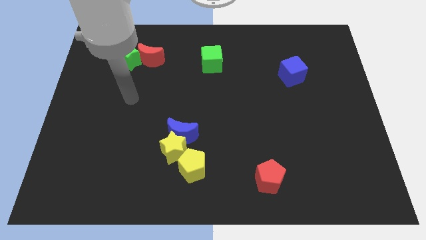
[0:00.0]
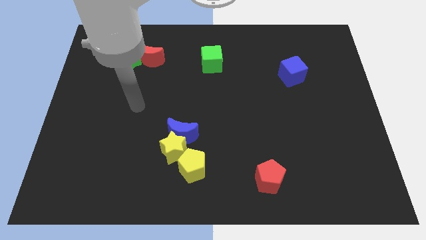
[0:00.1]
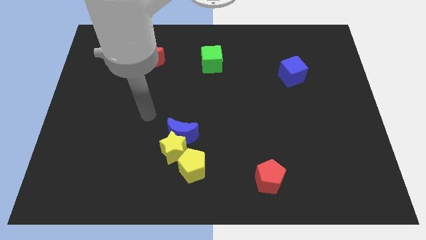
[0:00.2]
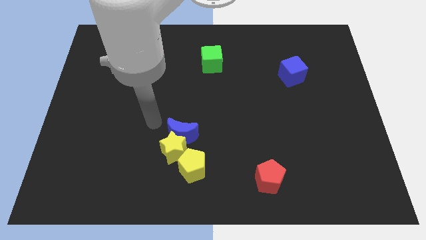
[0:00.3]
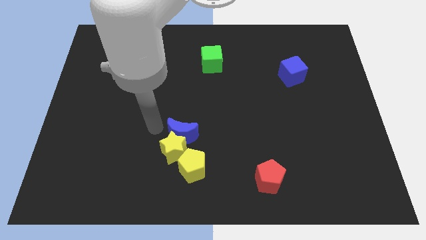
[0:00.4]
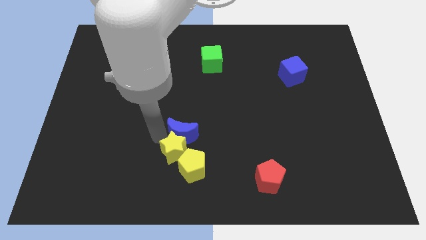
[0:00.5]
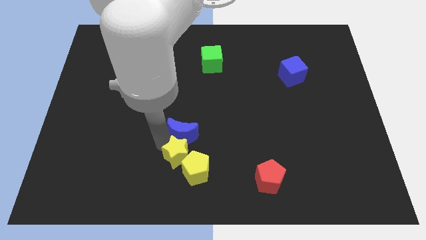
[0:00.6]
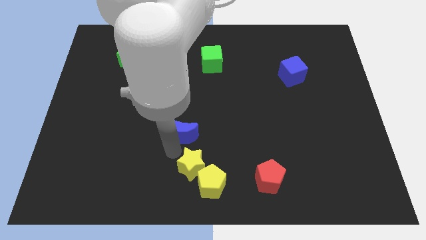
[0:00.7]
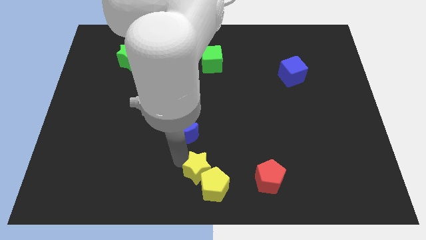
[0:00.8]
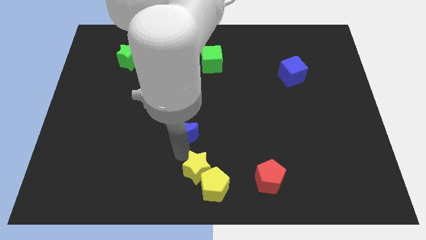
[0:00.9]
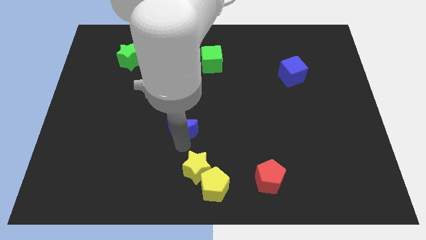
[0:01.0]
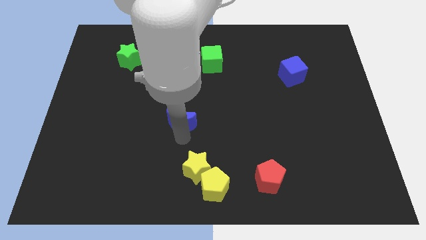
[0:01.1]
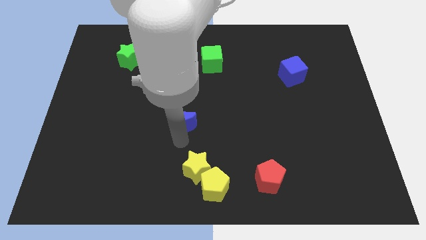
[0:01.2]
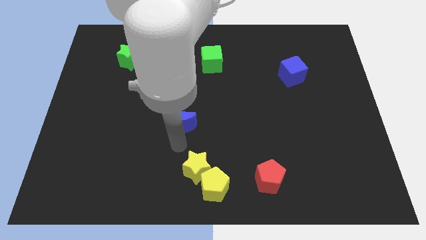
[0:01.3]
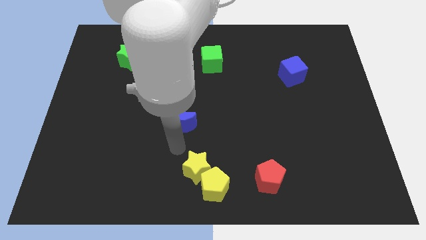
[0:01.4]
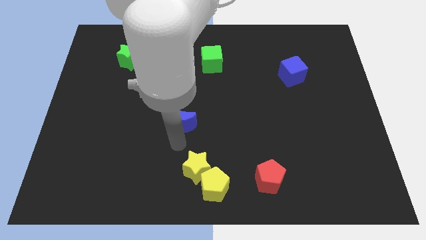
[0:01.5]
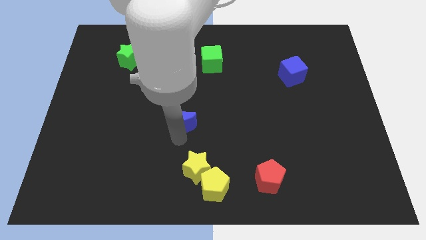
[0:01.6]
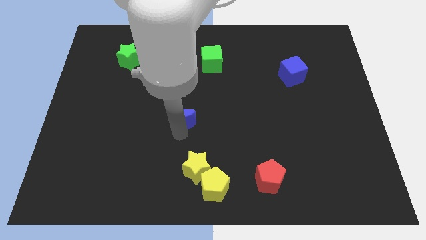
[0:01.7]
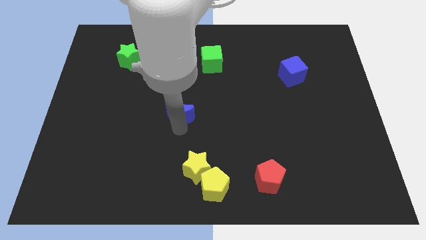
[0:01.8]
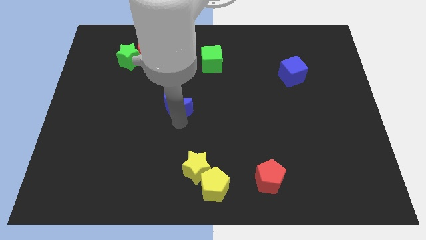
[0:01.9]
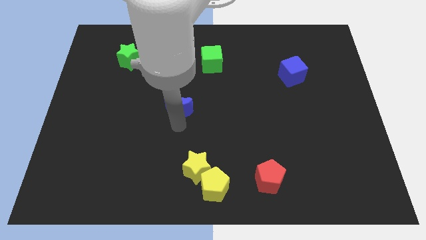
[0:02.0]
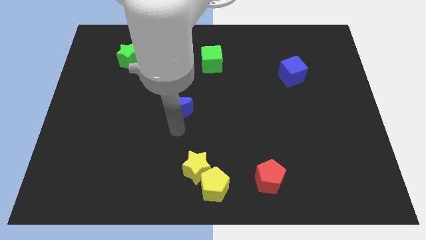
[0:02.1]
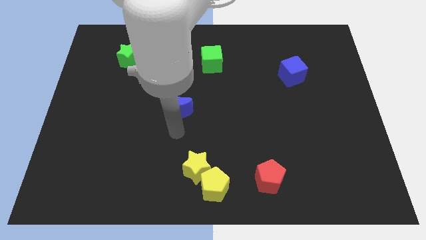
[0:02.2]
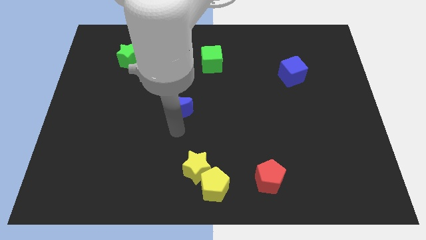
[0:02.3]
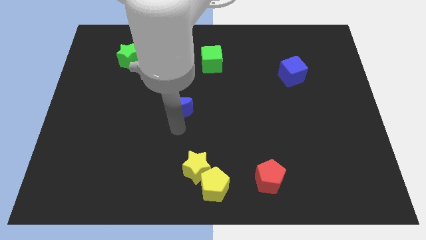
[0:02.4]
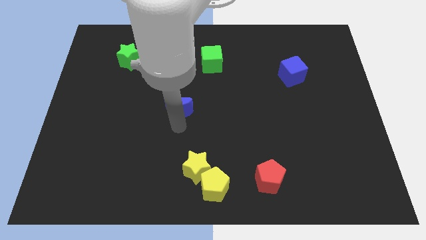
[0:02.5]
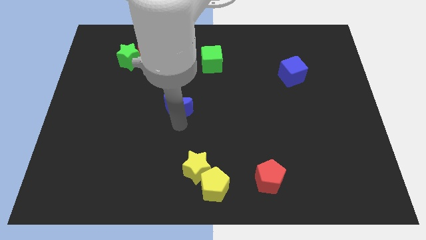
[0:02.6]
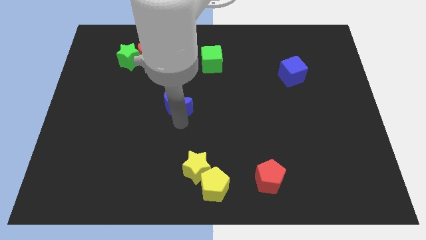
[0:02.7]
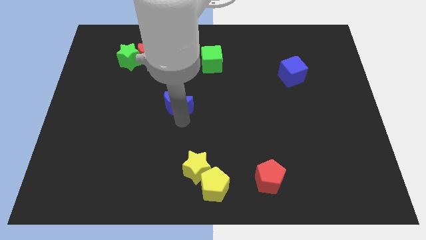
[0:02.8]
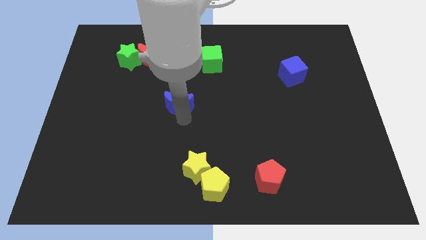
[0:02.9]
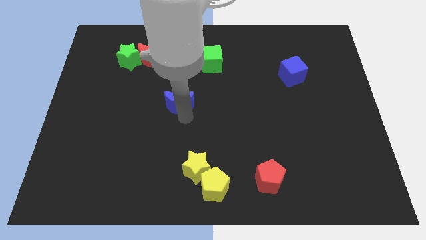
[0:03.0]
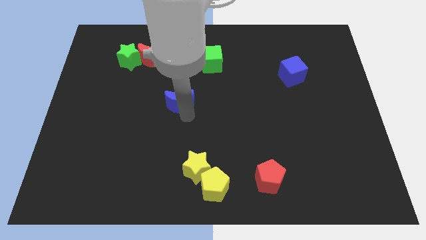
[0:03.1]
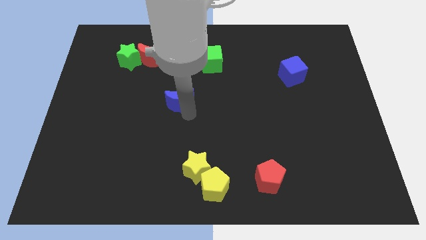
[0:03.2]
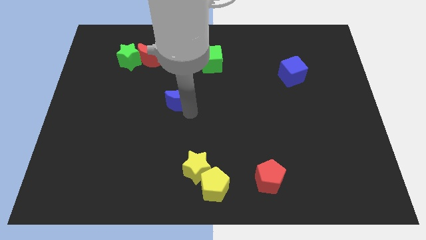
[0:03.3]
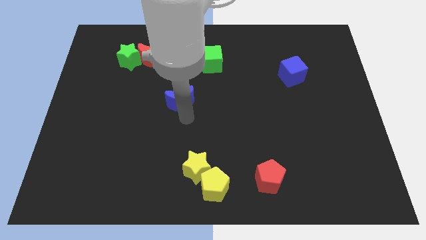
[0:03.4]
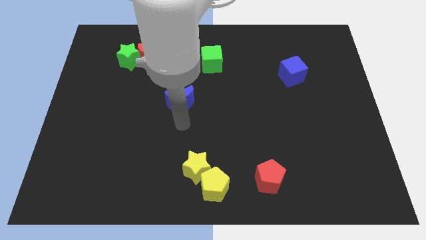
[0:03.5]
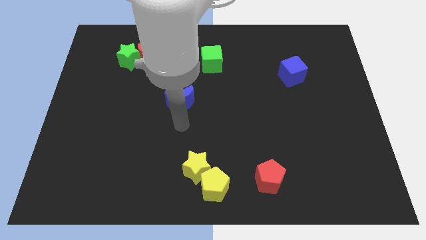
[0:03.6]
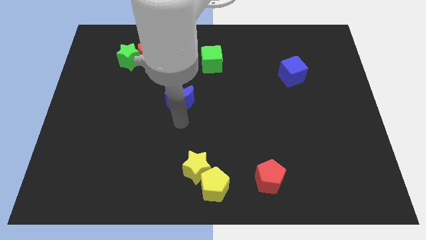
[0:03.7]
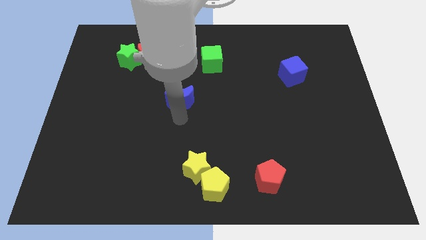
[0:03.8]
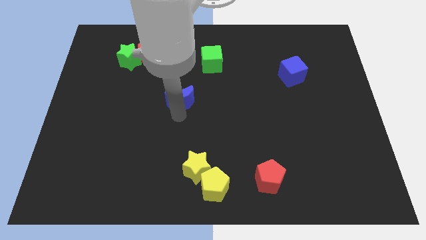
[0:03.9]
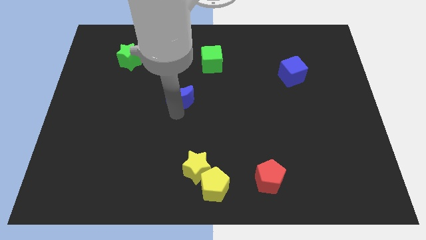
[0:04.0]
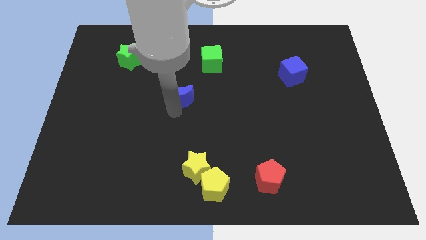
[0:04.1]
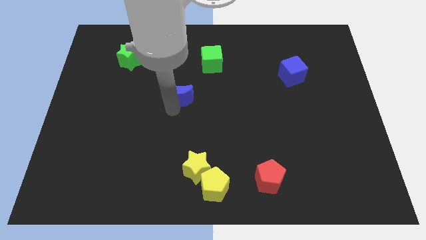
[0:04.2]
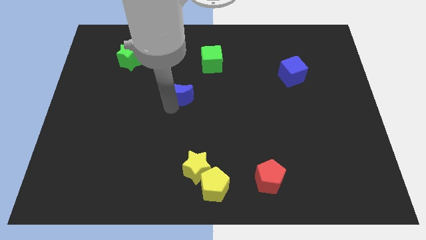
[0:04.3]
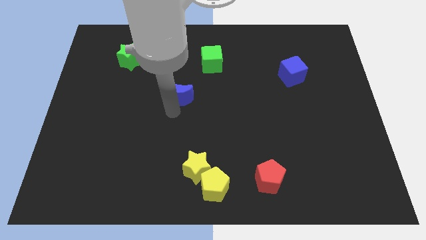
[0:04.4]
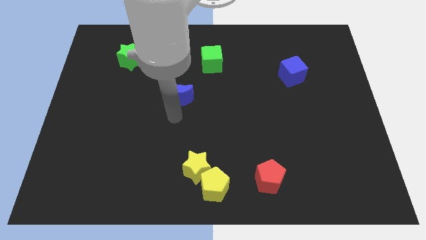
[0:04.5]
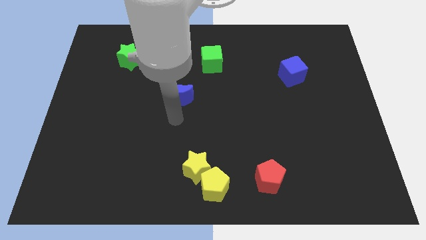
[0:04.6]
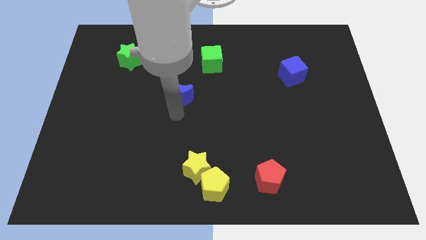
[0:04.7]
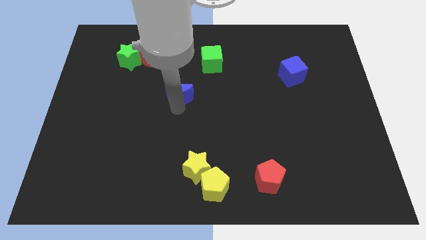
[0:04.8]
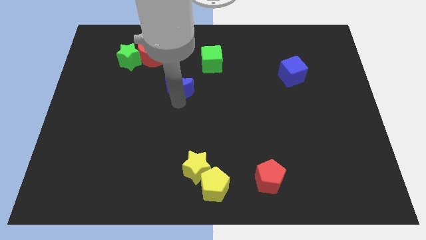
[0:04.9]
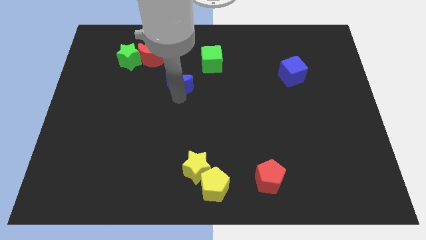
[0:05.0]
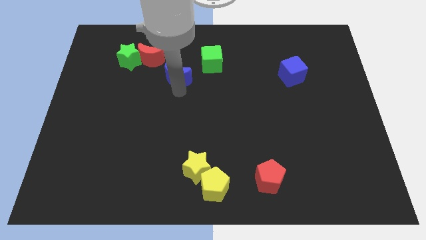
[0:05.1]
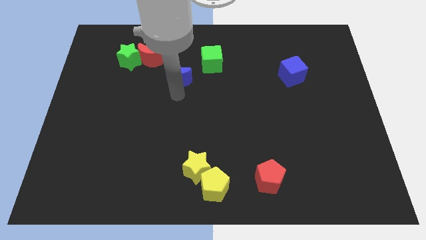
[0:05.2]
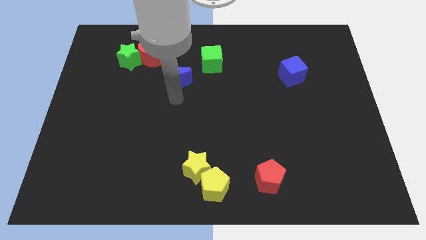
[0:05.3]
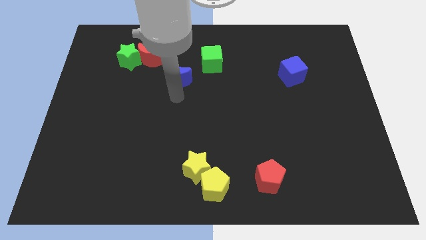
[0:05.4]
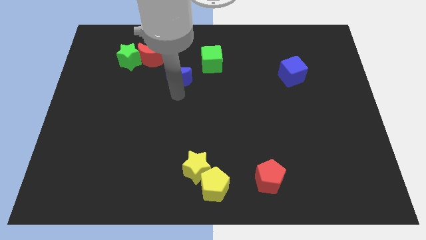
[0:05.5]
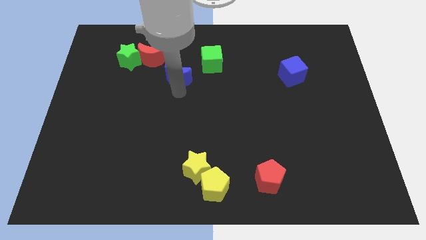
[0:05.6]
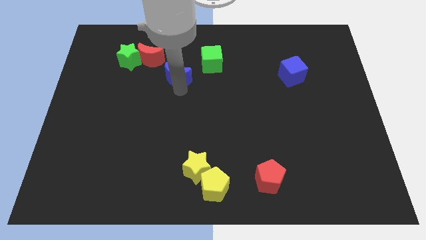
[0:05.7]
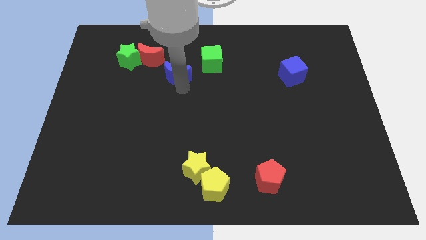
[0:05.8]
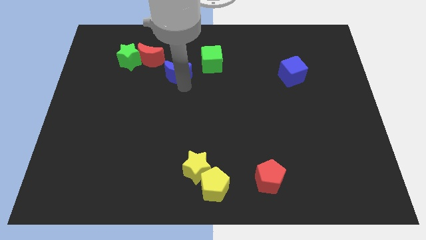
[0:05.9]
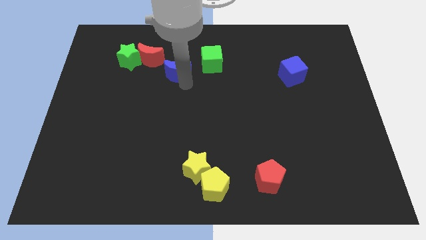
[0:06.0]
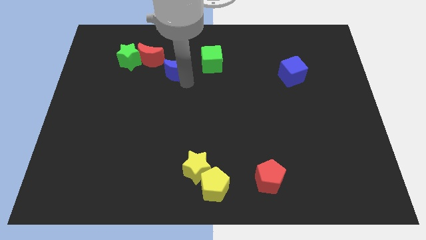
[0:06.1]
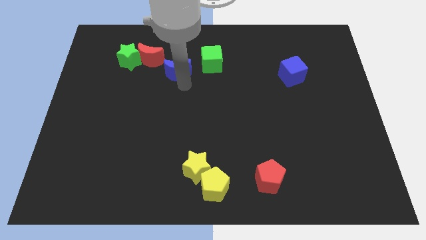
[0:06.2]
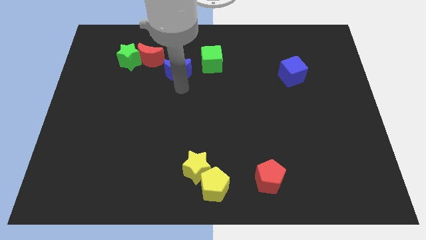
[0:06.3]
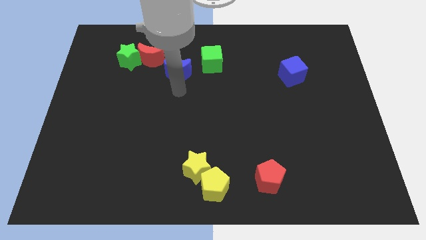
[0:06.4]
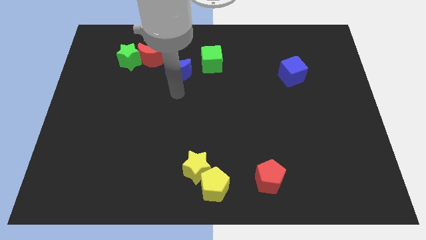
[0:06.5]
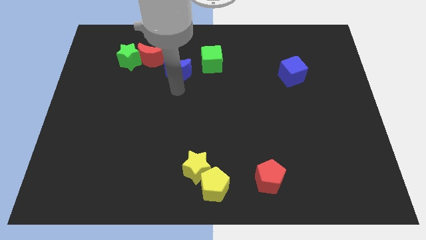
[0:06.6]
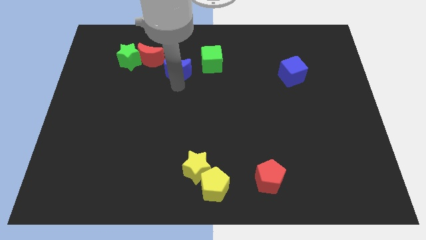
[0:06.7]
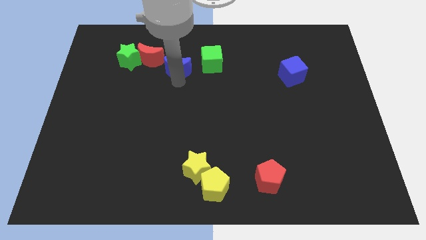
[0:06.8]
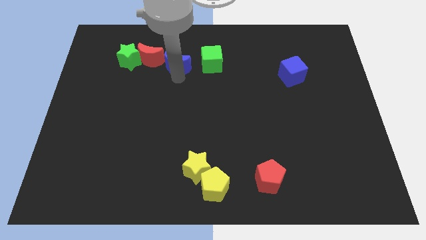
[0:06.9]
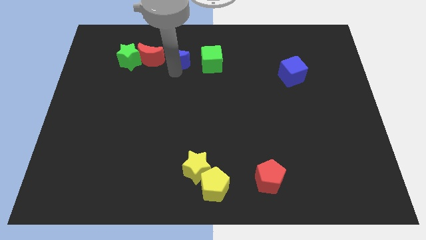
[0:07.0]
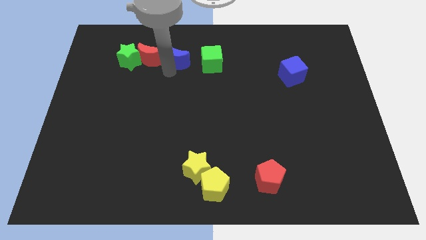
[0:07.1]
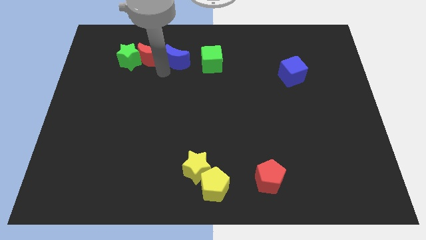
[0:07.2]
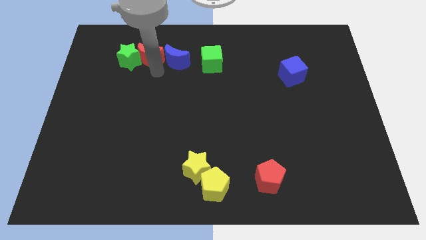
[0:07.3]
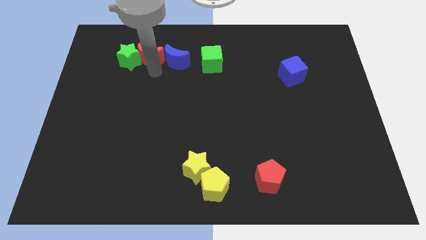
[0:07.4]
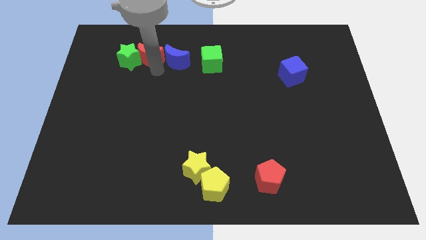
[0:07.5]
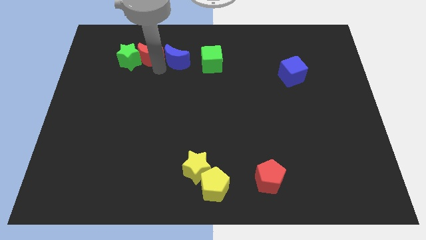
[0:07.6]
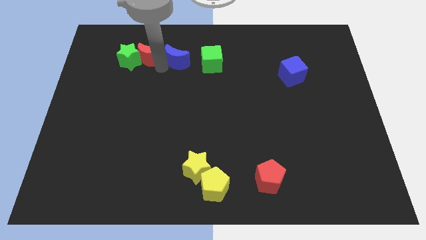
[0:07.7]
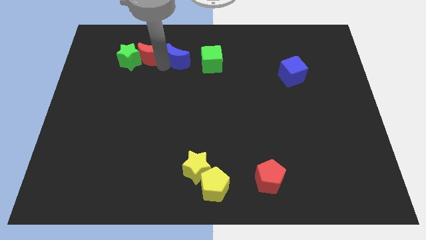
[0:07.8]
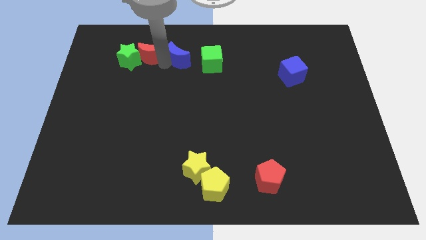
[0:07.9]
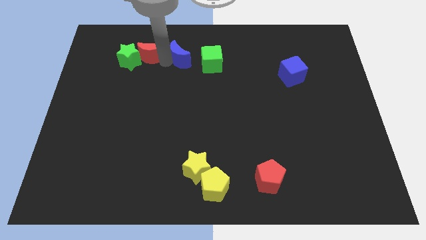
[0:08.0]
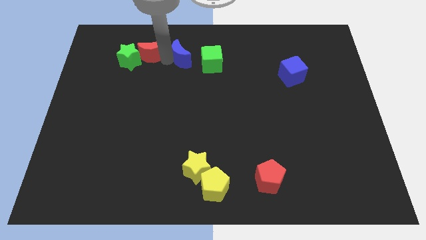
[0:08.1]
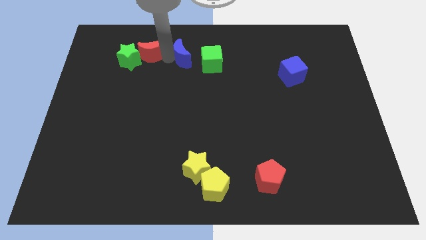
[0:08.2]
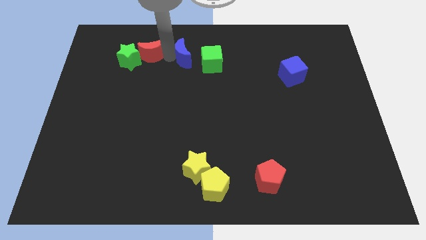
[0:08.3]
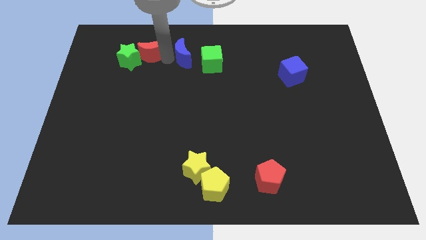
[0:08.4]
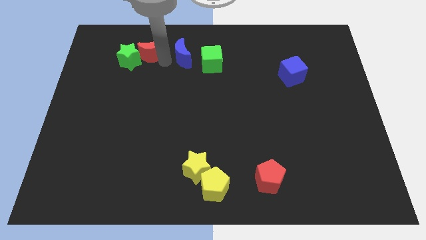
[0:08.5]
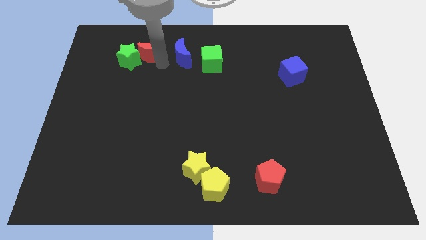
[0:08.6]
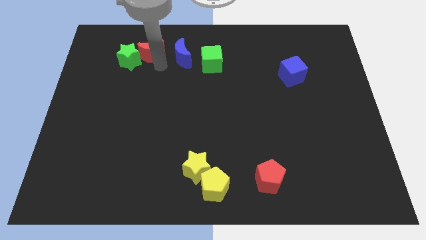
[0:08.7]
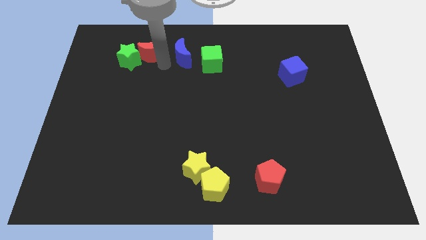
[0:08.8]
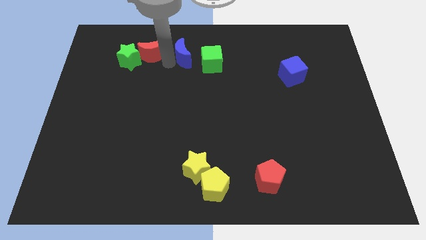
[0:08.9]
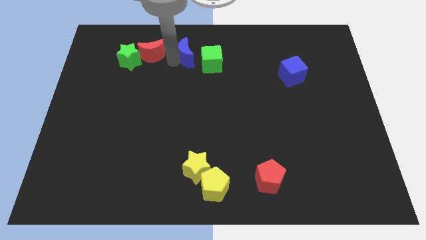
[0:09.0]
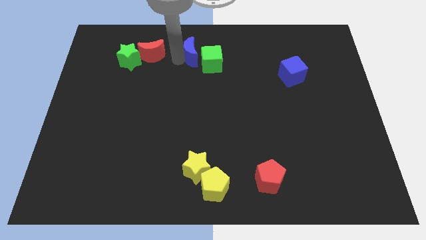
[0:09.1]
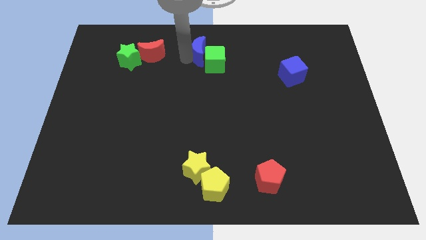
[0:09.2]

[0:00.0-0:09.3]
slide the blue moon to the top side
